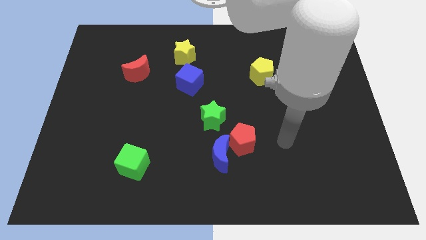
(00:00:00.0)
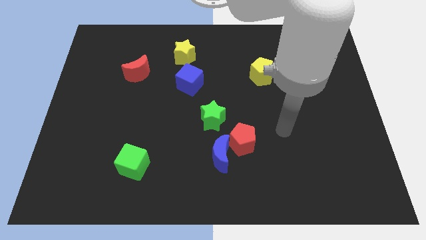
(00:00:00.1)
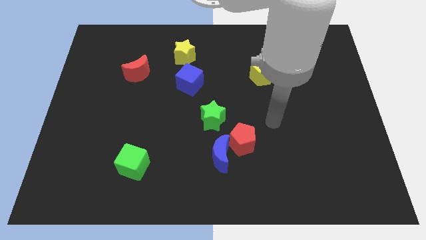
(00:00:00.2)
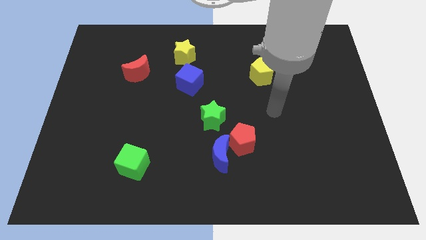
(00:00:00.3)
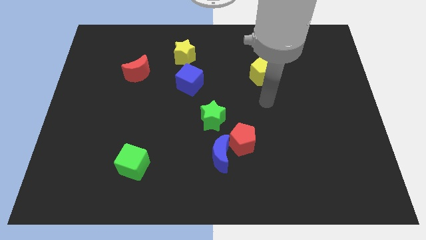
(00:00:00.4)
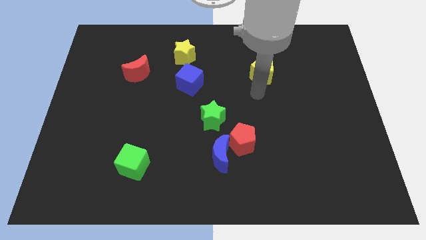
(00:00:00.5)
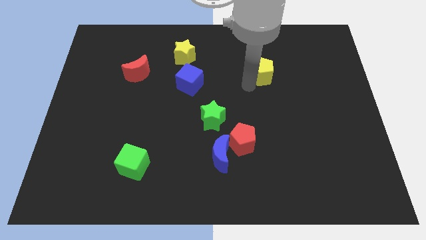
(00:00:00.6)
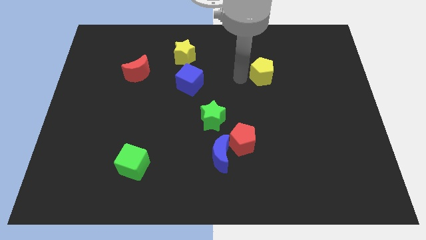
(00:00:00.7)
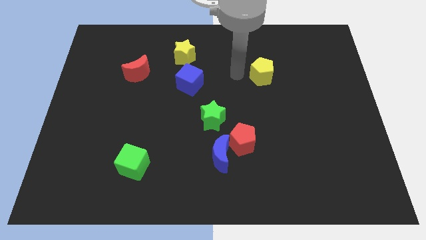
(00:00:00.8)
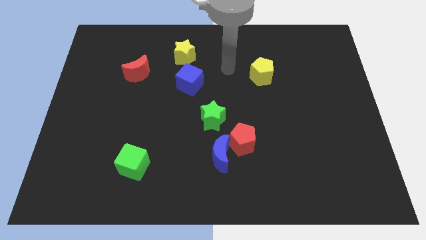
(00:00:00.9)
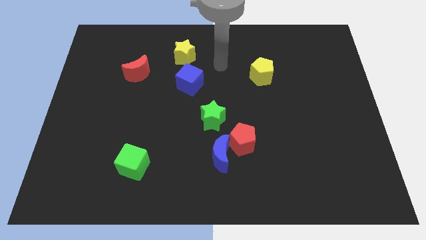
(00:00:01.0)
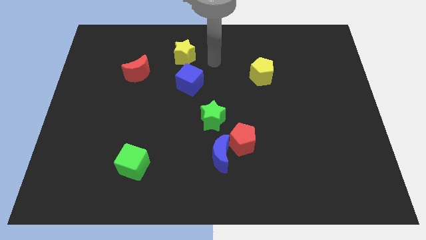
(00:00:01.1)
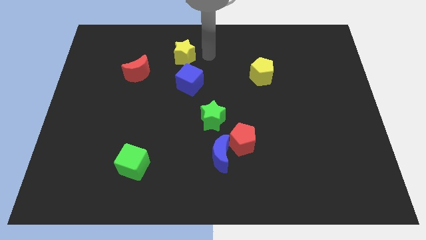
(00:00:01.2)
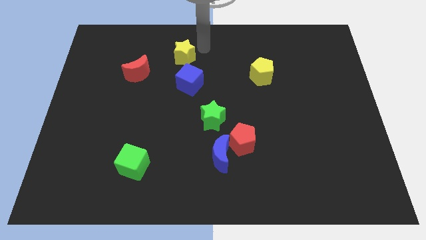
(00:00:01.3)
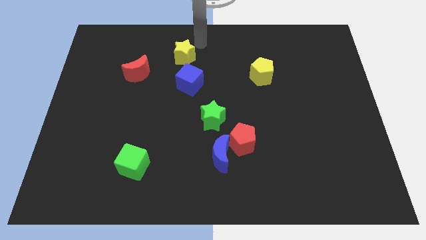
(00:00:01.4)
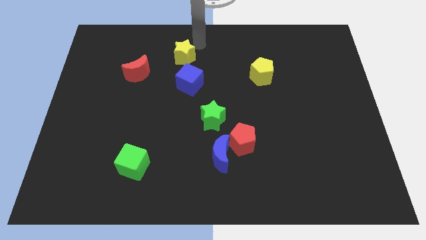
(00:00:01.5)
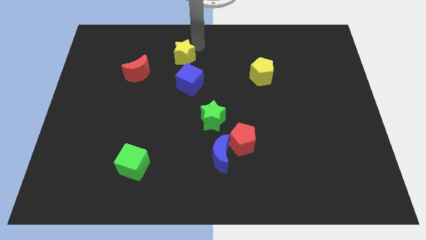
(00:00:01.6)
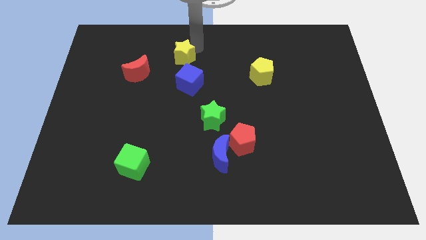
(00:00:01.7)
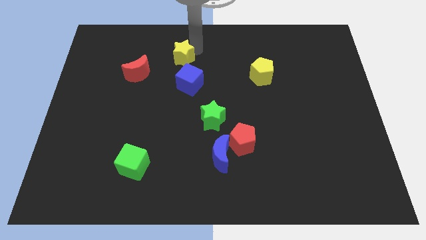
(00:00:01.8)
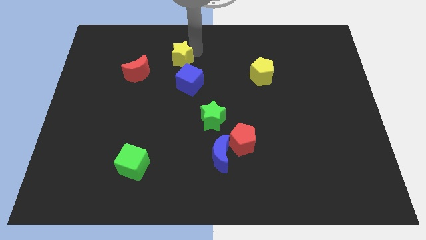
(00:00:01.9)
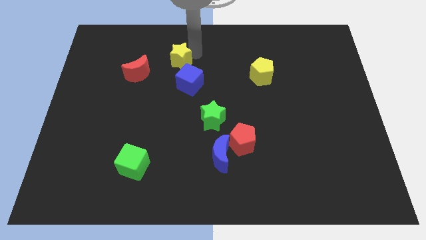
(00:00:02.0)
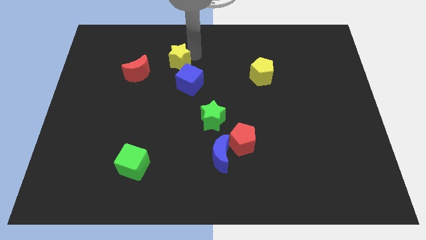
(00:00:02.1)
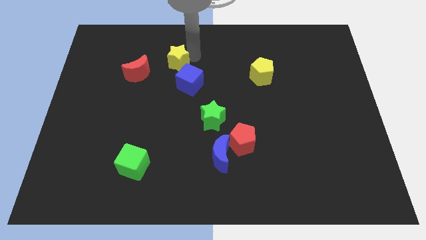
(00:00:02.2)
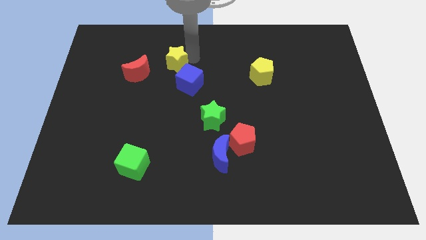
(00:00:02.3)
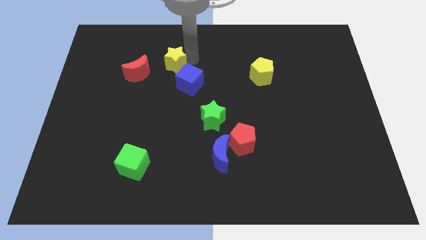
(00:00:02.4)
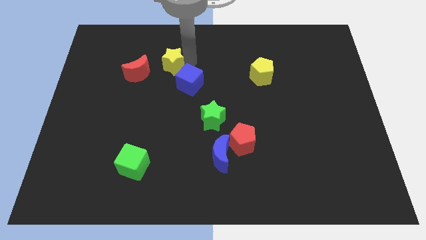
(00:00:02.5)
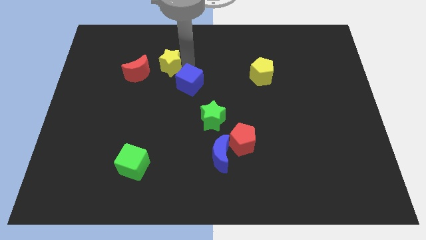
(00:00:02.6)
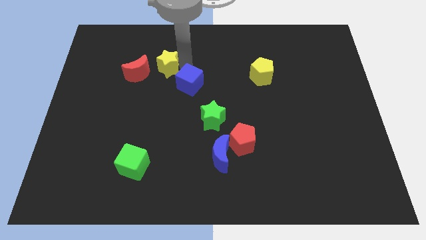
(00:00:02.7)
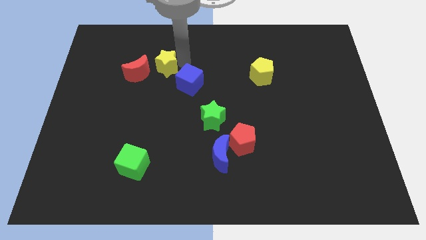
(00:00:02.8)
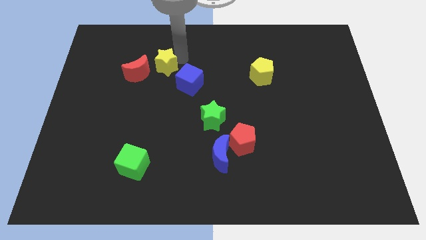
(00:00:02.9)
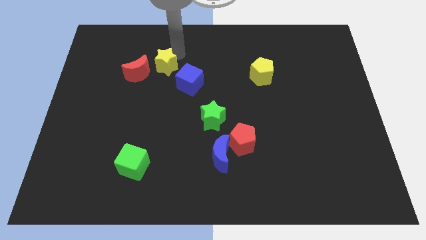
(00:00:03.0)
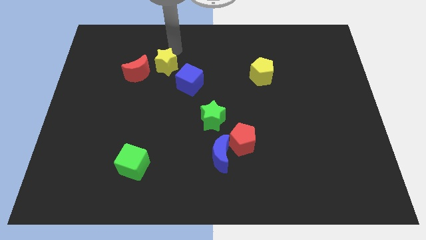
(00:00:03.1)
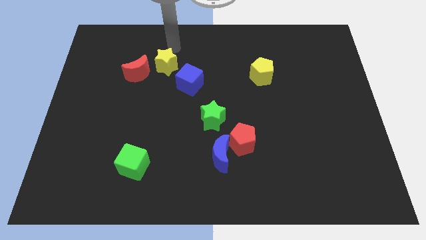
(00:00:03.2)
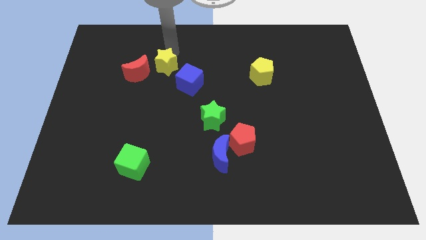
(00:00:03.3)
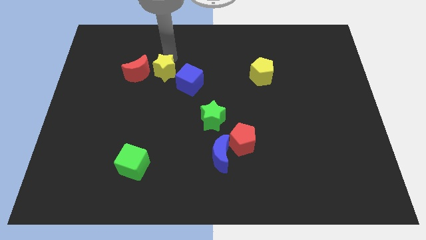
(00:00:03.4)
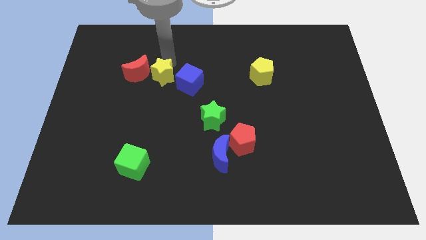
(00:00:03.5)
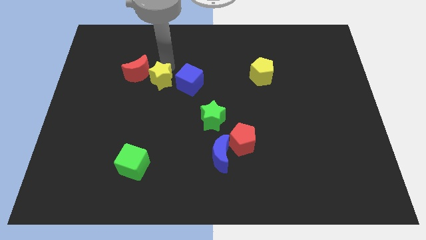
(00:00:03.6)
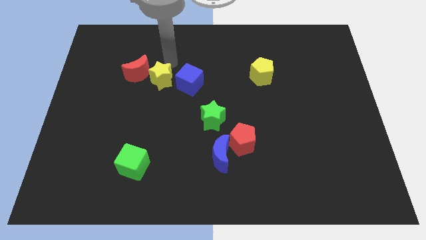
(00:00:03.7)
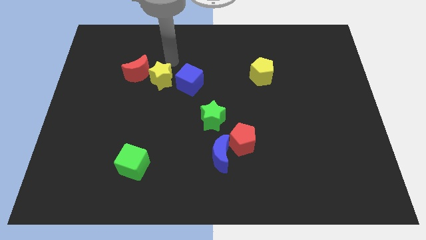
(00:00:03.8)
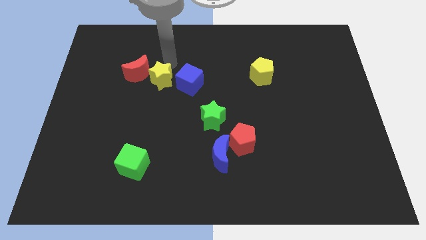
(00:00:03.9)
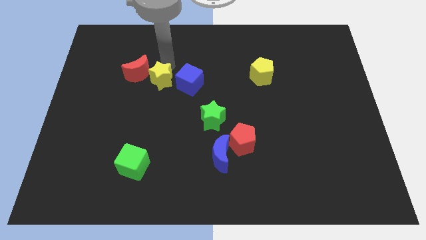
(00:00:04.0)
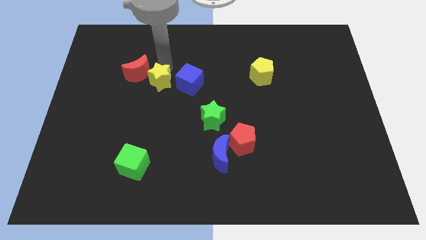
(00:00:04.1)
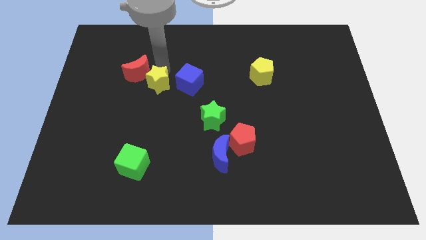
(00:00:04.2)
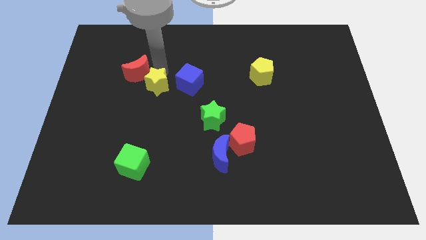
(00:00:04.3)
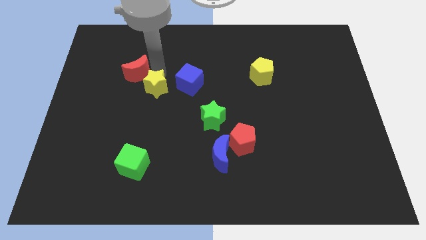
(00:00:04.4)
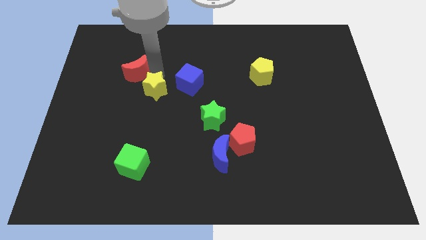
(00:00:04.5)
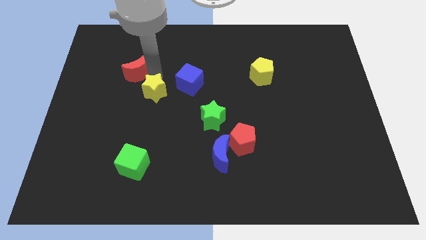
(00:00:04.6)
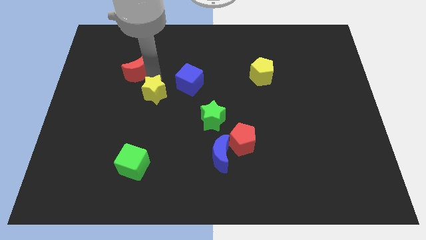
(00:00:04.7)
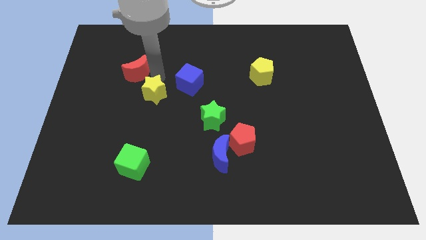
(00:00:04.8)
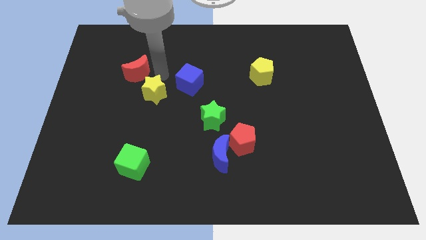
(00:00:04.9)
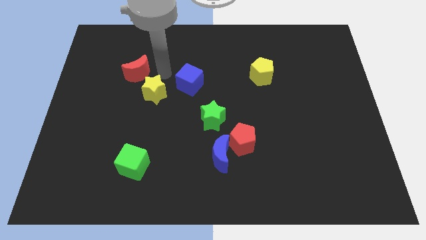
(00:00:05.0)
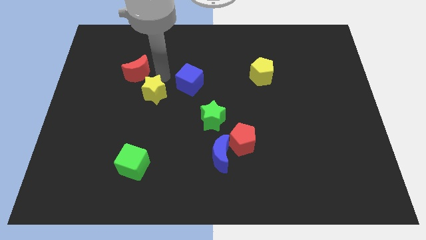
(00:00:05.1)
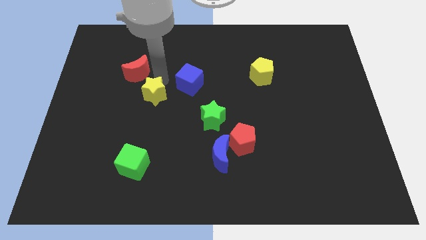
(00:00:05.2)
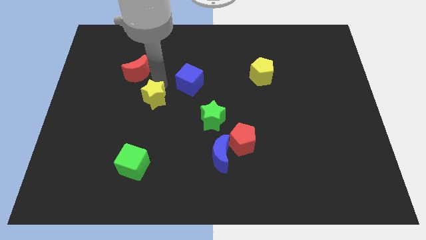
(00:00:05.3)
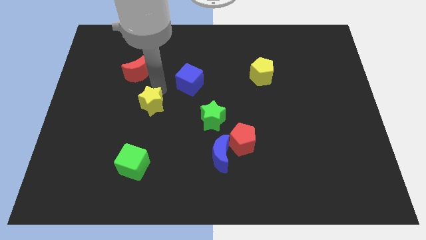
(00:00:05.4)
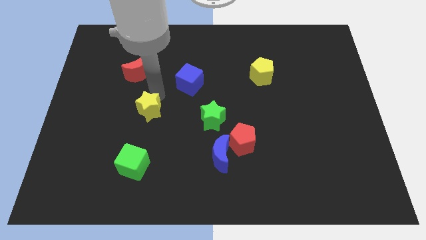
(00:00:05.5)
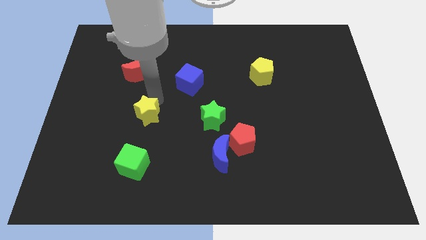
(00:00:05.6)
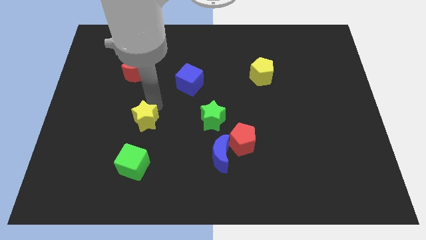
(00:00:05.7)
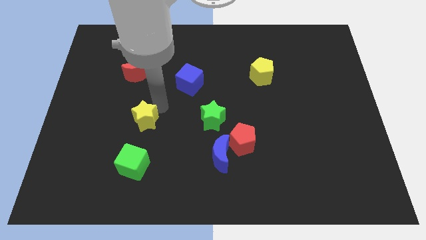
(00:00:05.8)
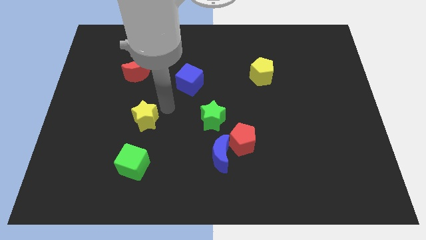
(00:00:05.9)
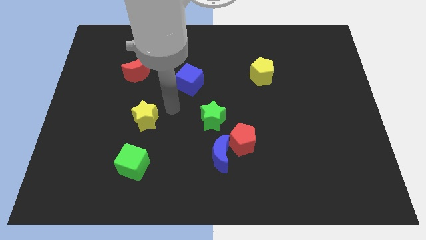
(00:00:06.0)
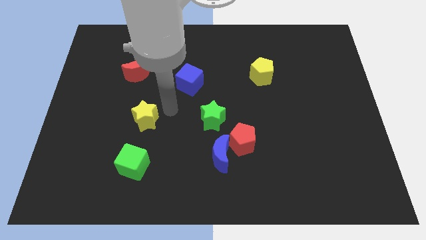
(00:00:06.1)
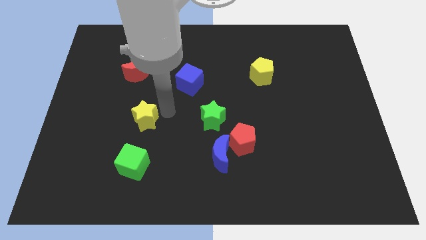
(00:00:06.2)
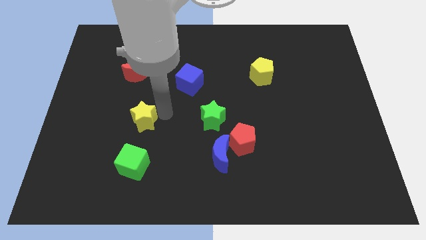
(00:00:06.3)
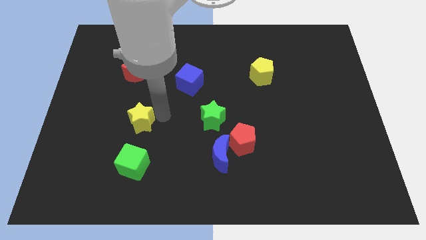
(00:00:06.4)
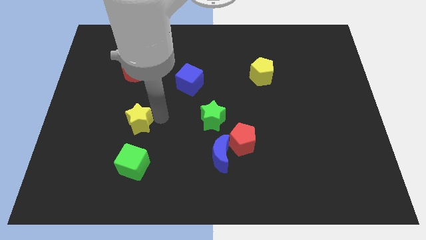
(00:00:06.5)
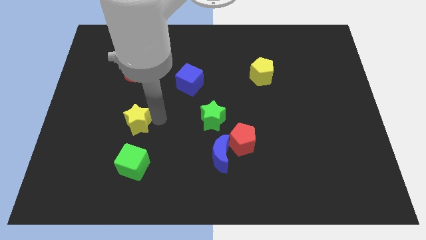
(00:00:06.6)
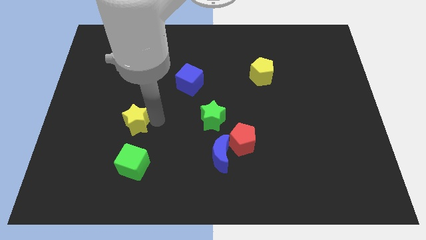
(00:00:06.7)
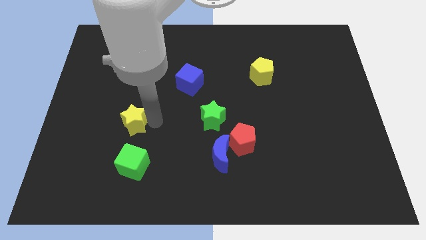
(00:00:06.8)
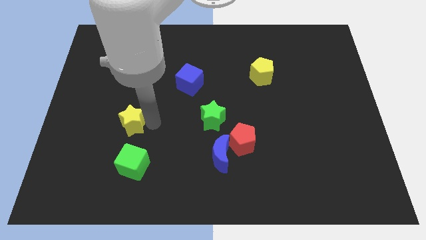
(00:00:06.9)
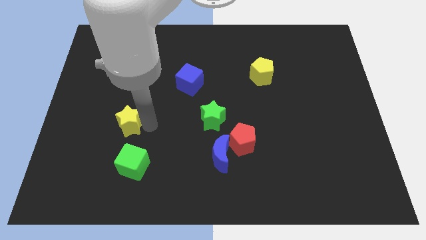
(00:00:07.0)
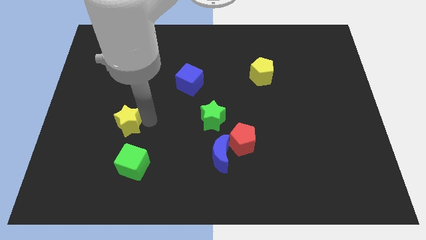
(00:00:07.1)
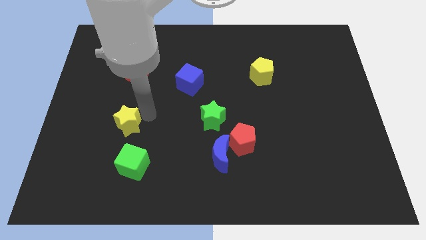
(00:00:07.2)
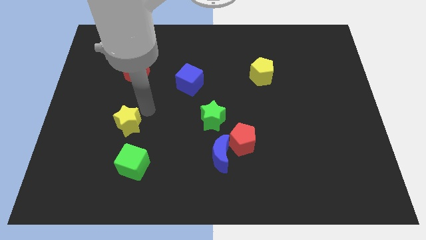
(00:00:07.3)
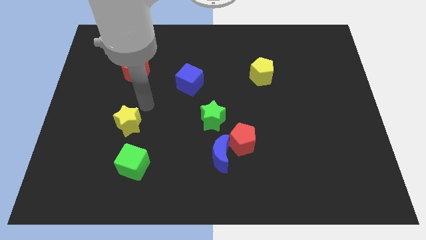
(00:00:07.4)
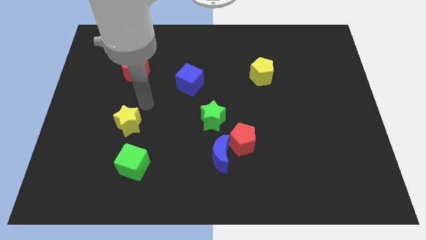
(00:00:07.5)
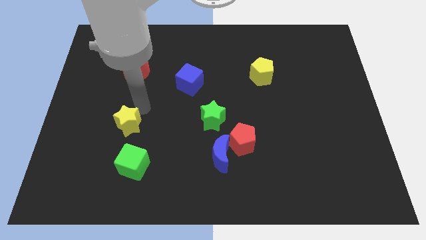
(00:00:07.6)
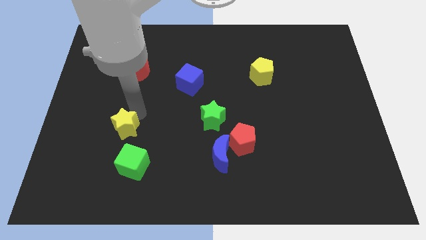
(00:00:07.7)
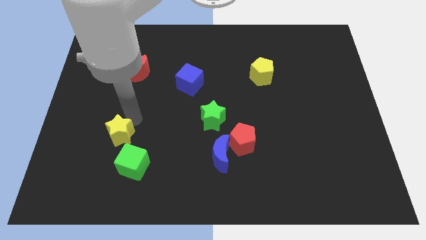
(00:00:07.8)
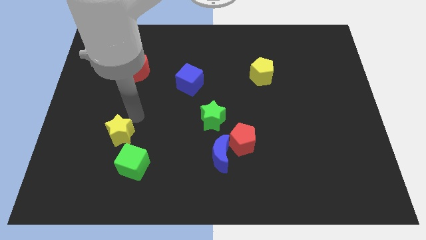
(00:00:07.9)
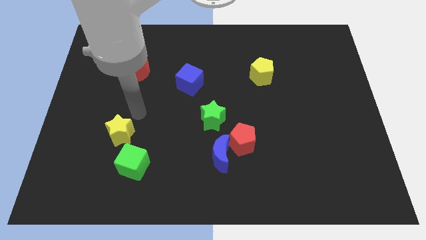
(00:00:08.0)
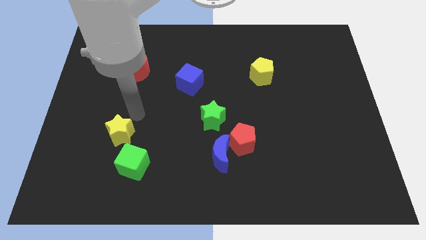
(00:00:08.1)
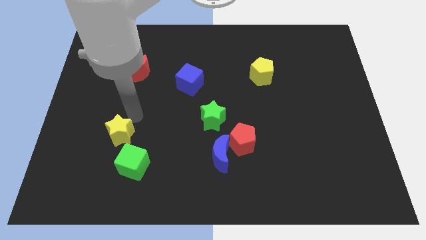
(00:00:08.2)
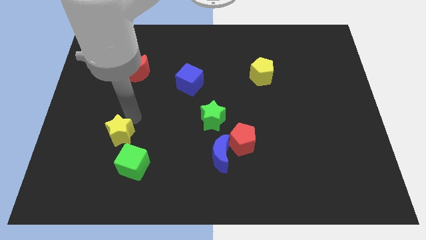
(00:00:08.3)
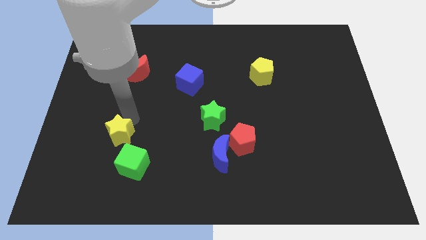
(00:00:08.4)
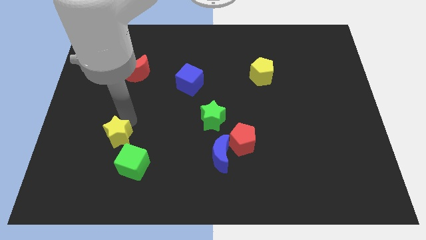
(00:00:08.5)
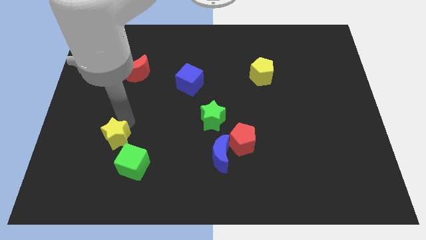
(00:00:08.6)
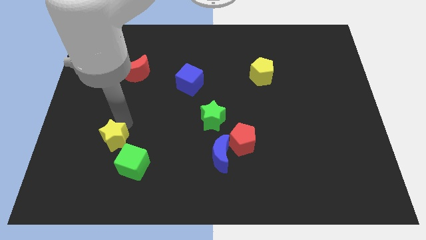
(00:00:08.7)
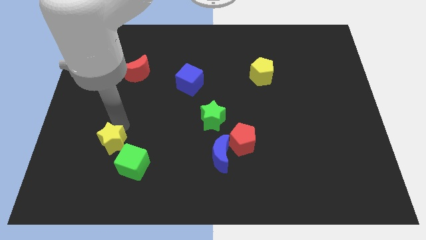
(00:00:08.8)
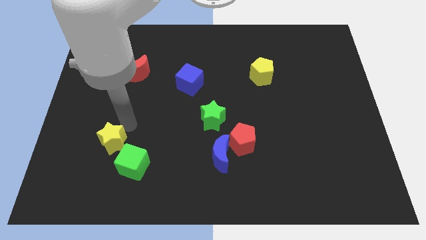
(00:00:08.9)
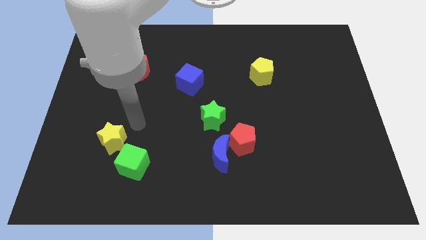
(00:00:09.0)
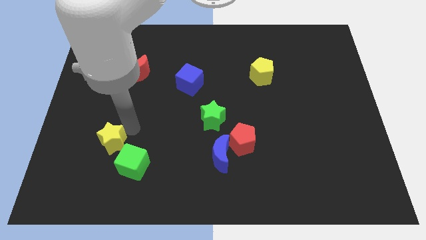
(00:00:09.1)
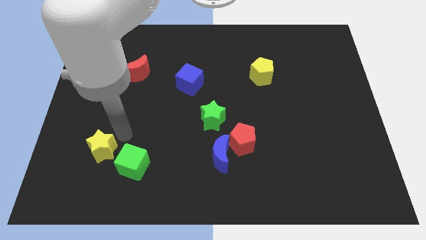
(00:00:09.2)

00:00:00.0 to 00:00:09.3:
slide the yellow star left of the green cube
